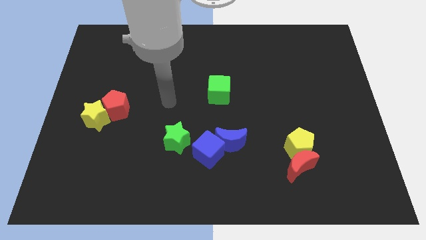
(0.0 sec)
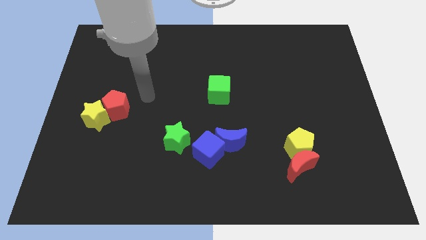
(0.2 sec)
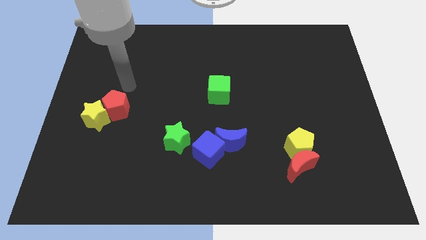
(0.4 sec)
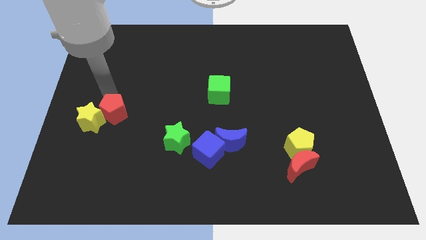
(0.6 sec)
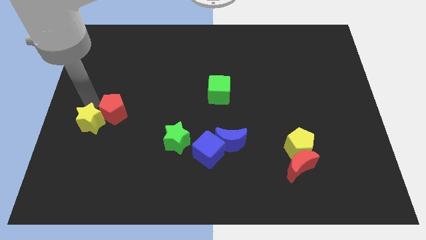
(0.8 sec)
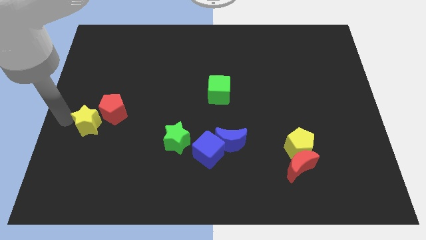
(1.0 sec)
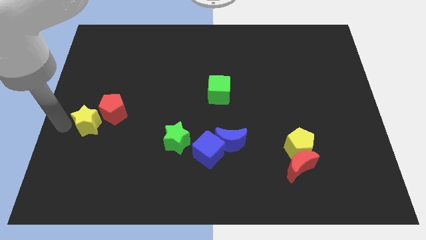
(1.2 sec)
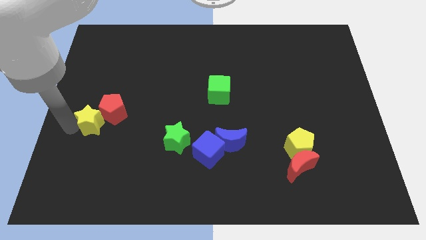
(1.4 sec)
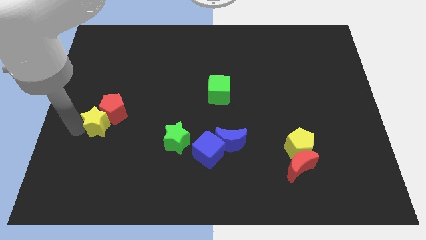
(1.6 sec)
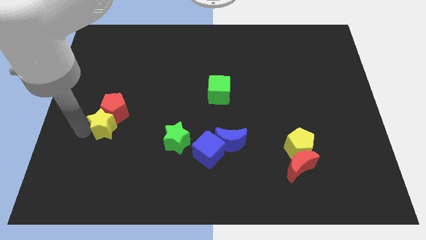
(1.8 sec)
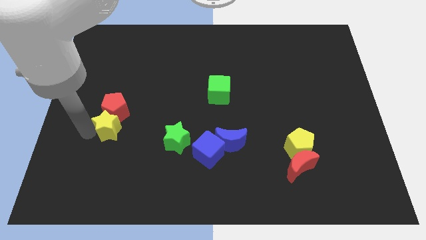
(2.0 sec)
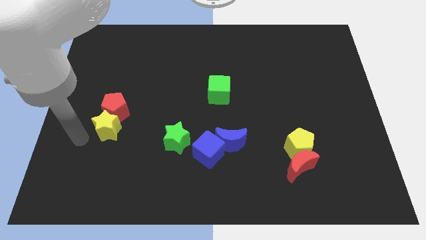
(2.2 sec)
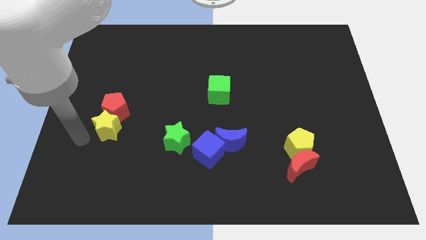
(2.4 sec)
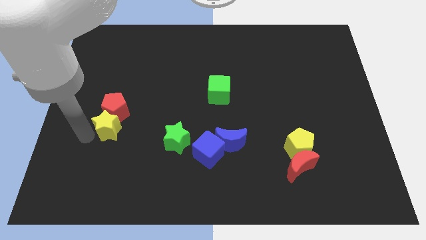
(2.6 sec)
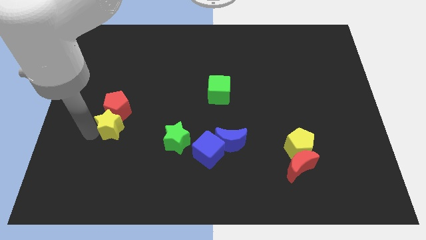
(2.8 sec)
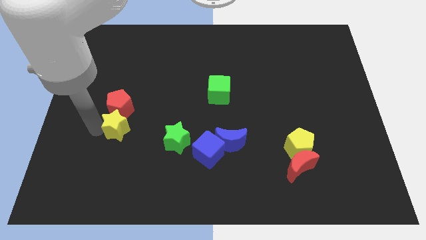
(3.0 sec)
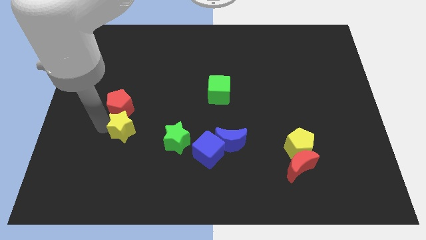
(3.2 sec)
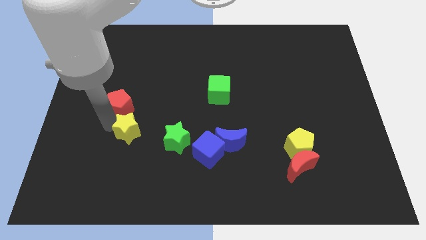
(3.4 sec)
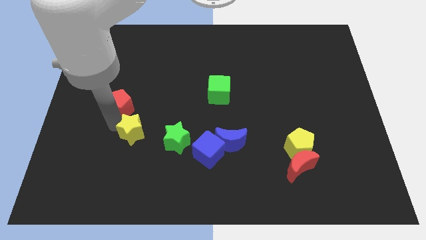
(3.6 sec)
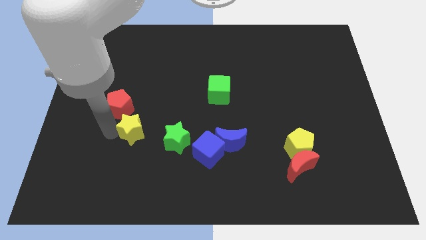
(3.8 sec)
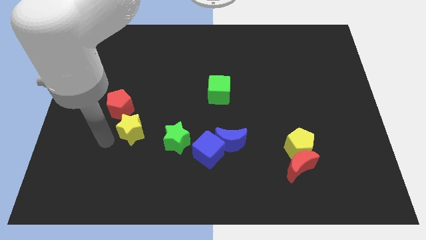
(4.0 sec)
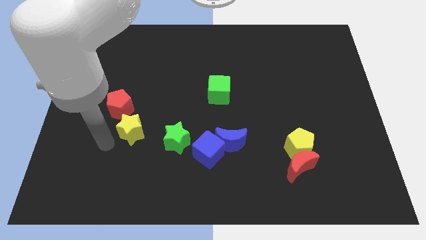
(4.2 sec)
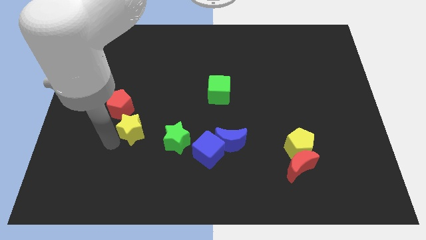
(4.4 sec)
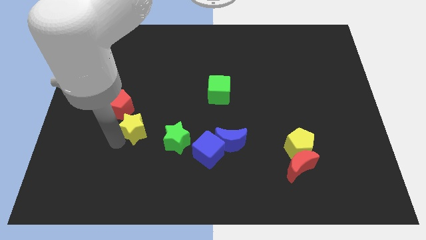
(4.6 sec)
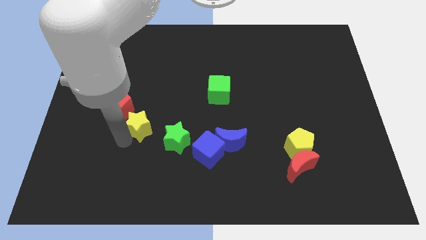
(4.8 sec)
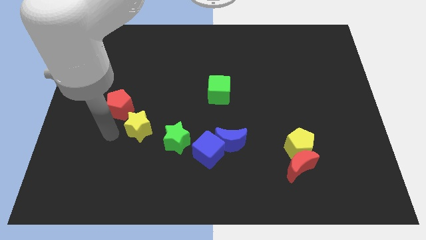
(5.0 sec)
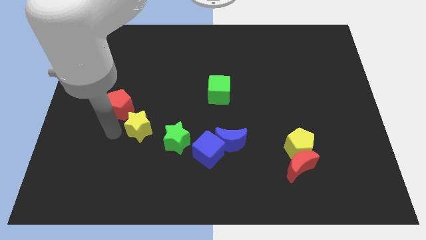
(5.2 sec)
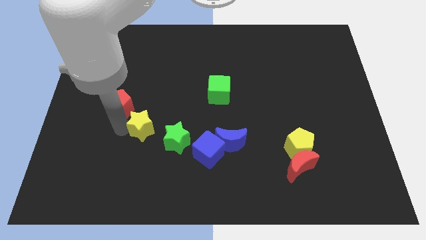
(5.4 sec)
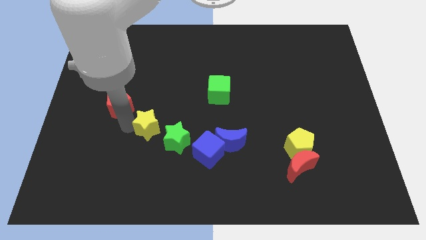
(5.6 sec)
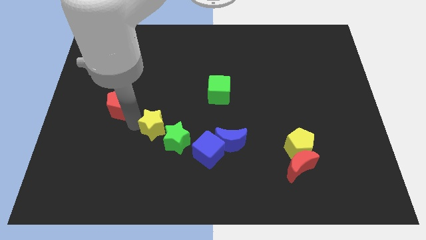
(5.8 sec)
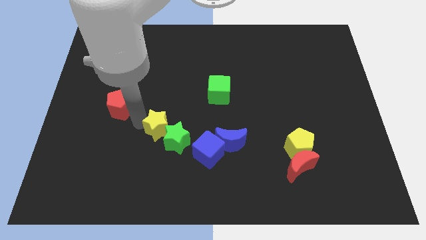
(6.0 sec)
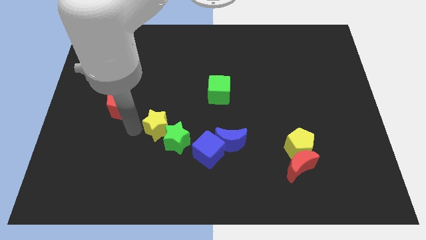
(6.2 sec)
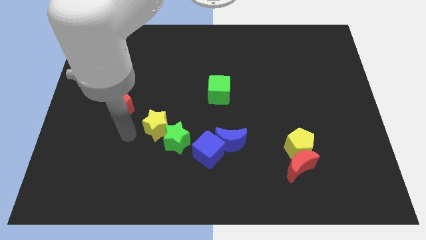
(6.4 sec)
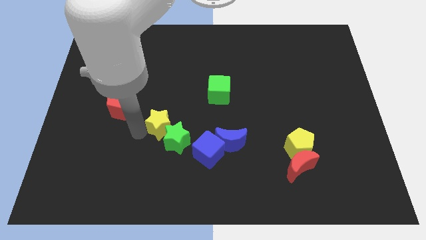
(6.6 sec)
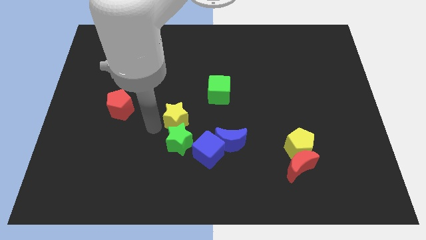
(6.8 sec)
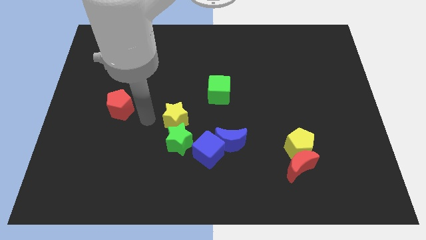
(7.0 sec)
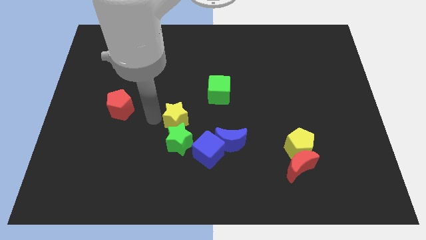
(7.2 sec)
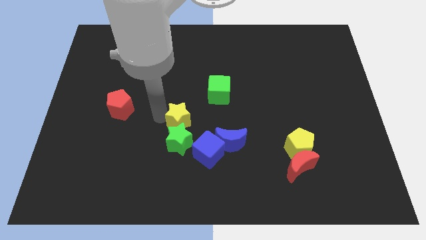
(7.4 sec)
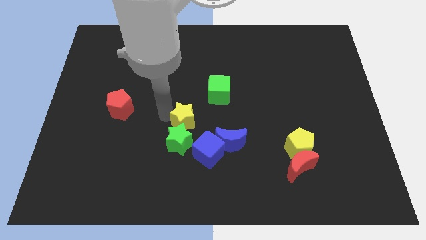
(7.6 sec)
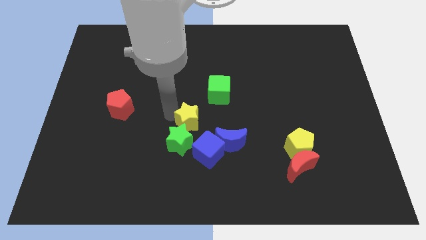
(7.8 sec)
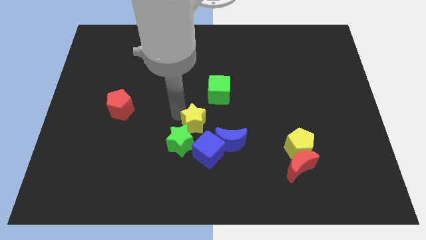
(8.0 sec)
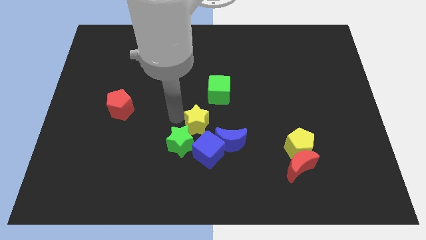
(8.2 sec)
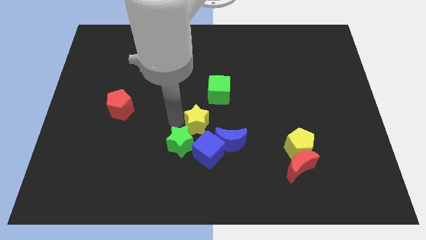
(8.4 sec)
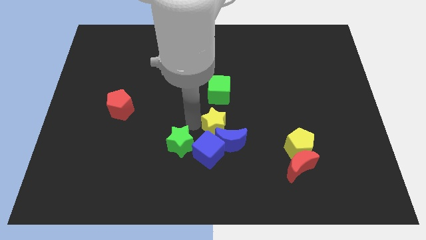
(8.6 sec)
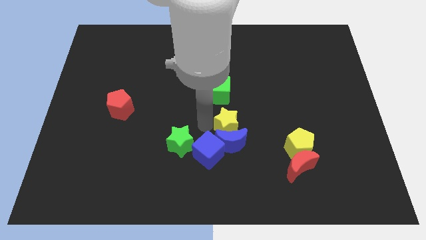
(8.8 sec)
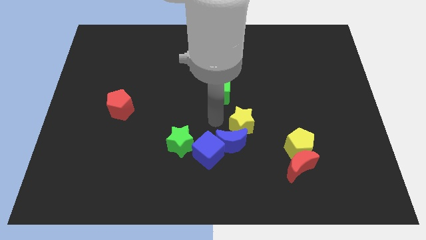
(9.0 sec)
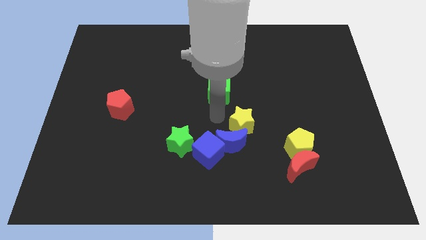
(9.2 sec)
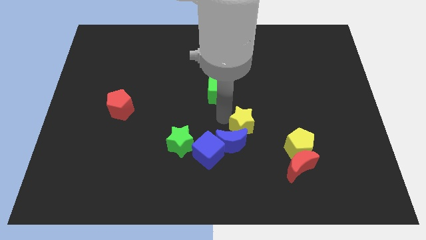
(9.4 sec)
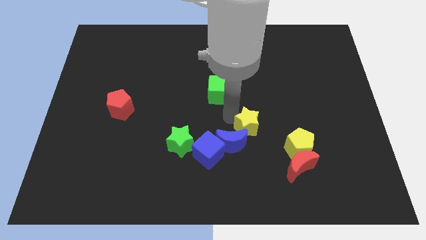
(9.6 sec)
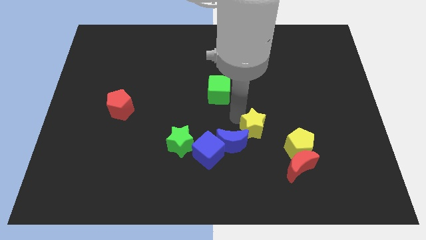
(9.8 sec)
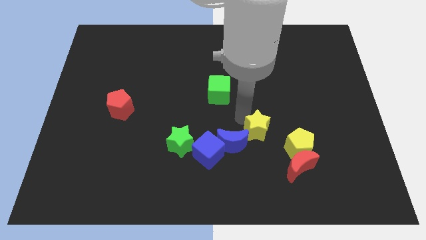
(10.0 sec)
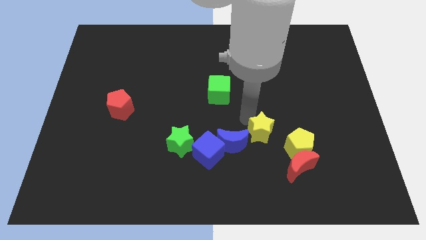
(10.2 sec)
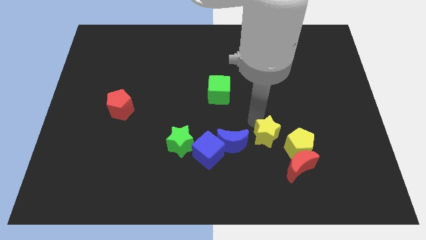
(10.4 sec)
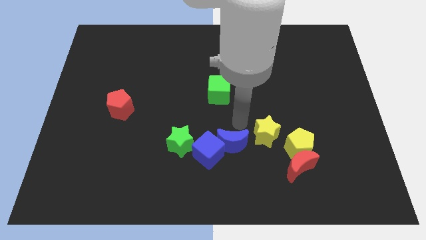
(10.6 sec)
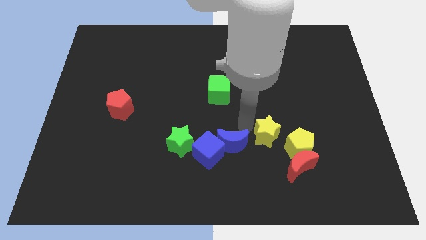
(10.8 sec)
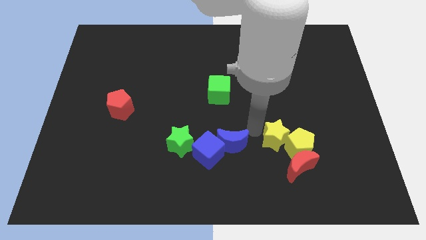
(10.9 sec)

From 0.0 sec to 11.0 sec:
slide the yellow star next to the yellow pentagon

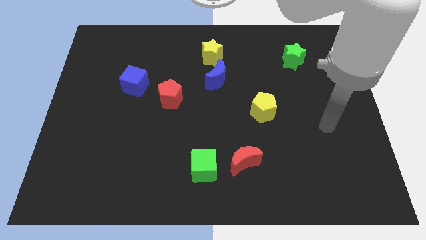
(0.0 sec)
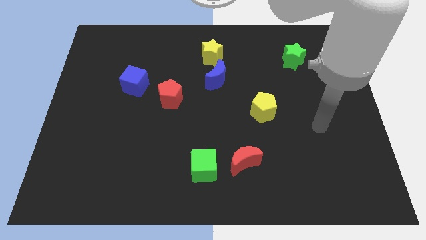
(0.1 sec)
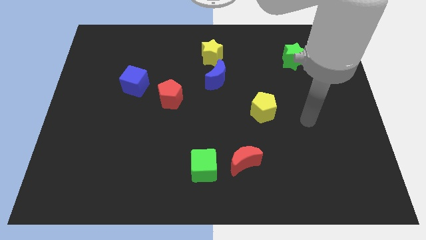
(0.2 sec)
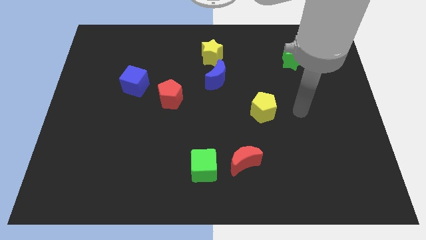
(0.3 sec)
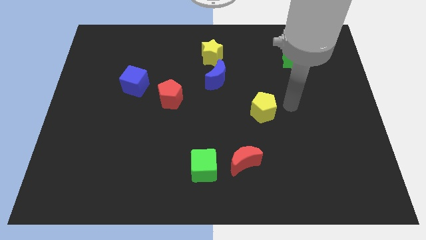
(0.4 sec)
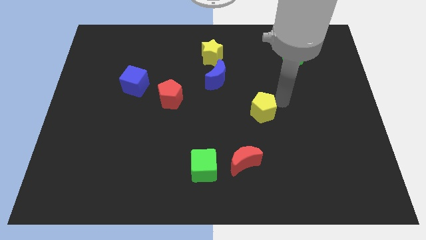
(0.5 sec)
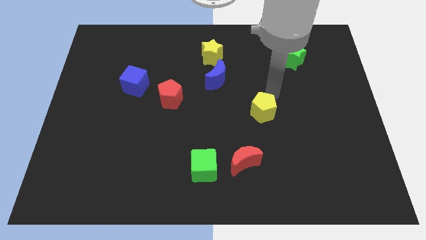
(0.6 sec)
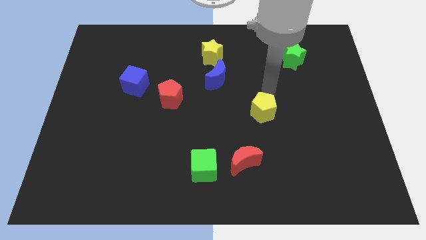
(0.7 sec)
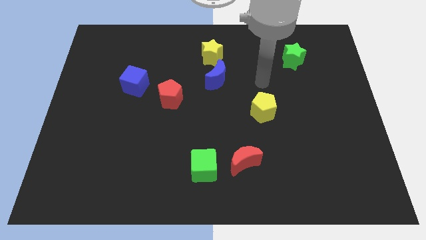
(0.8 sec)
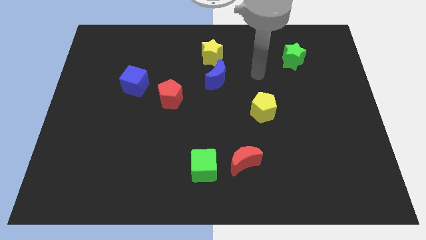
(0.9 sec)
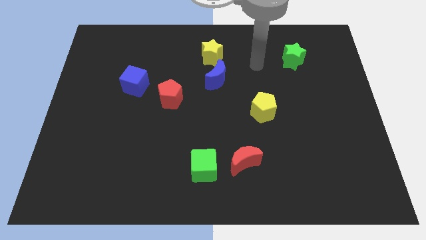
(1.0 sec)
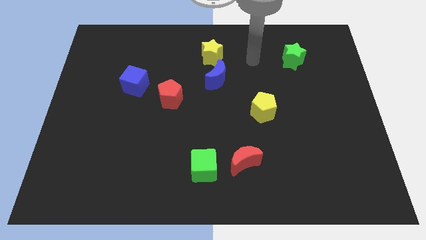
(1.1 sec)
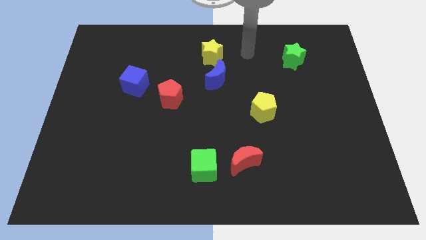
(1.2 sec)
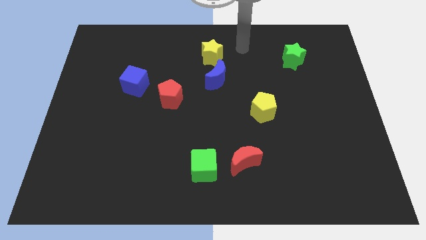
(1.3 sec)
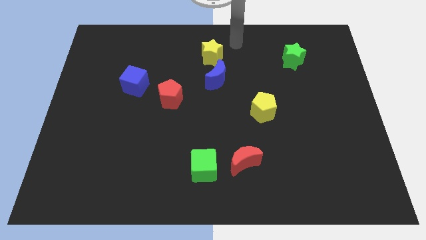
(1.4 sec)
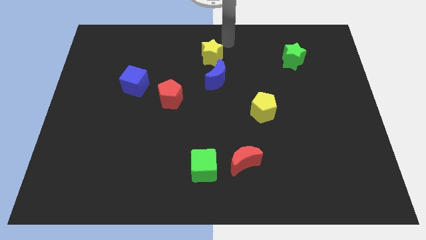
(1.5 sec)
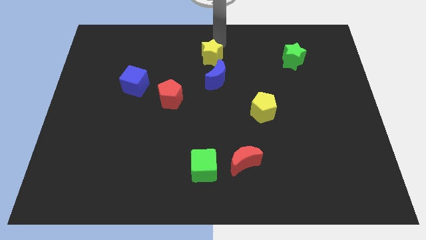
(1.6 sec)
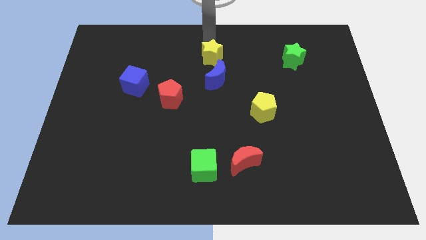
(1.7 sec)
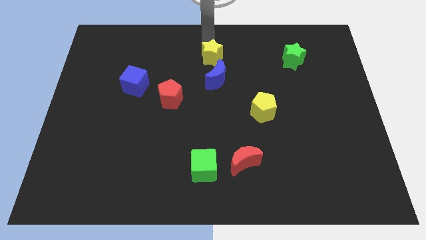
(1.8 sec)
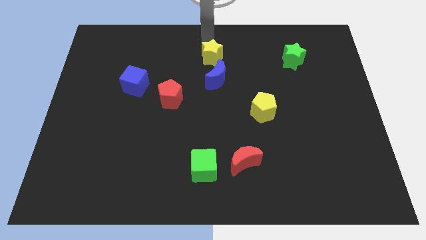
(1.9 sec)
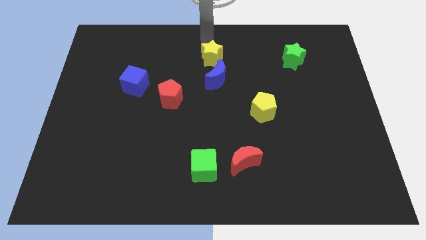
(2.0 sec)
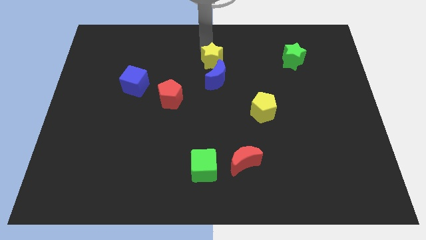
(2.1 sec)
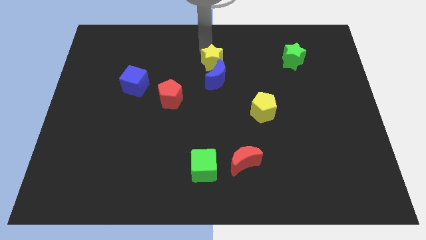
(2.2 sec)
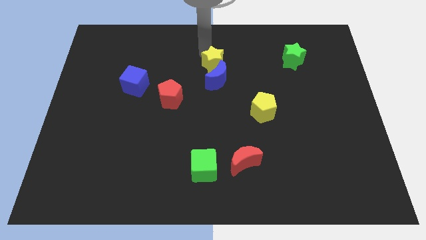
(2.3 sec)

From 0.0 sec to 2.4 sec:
move the yellow star towards the blue moon
